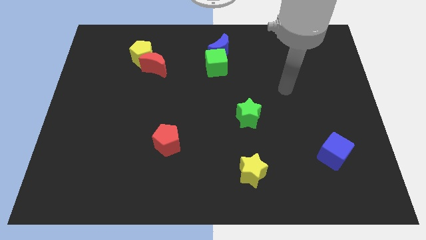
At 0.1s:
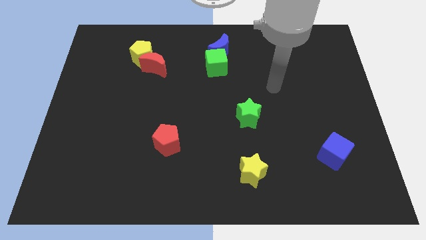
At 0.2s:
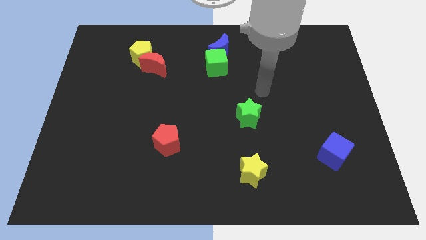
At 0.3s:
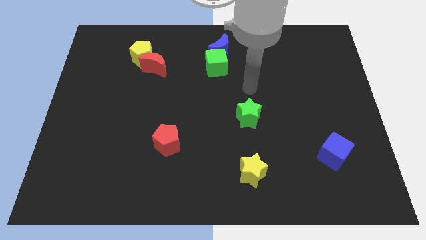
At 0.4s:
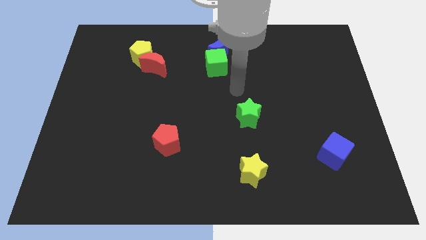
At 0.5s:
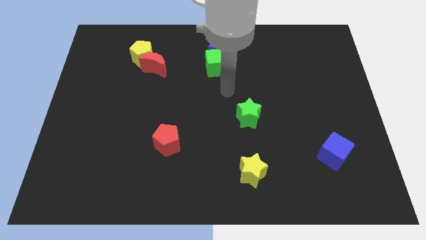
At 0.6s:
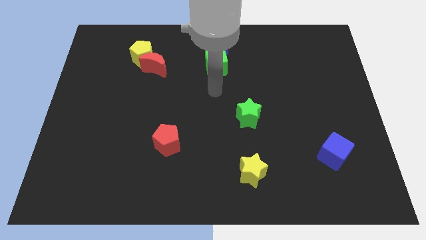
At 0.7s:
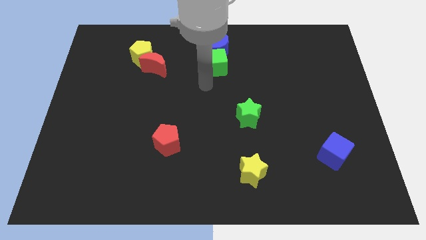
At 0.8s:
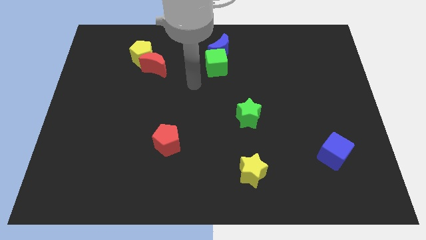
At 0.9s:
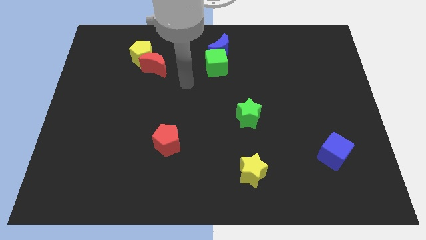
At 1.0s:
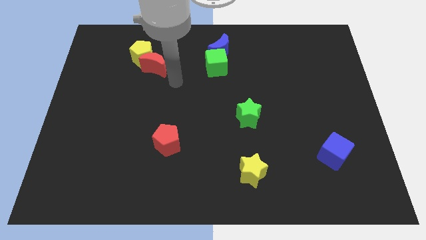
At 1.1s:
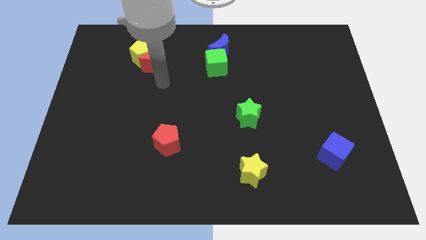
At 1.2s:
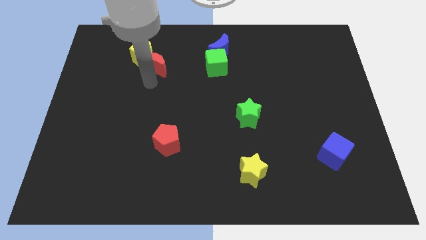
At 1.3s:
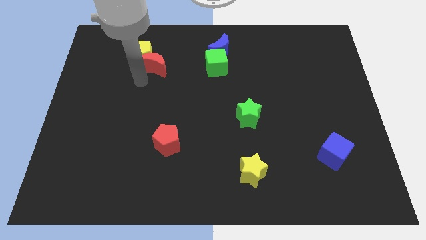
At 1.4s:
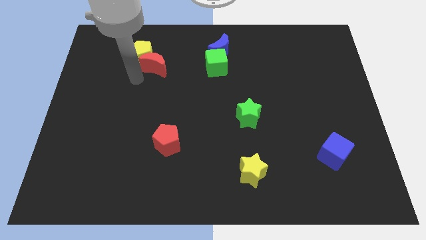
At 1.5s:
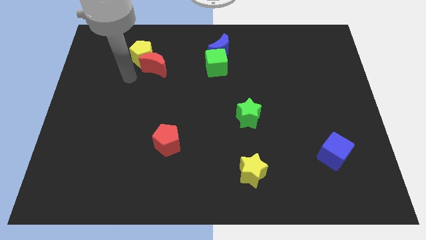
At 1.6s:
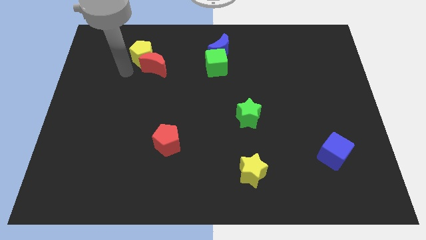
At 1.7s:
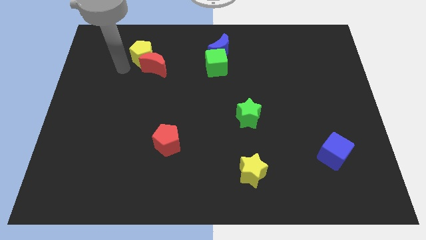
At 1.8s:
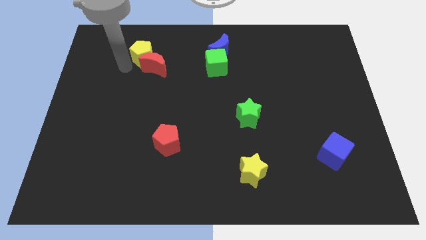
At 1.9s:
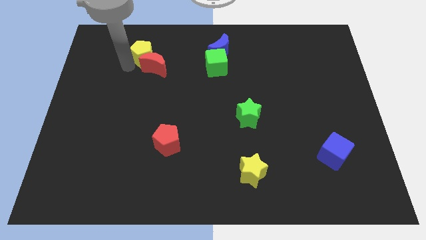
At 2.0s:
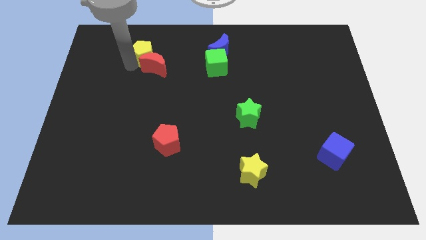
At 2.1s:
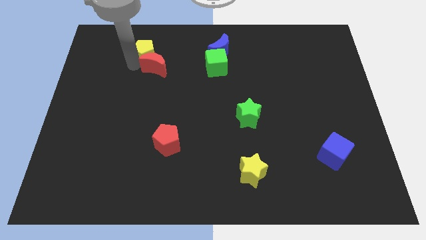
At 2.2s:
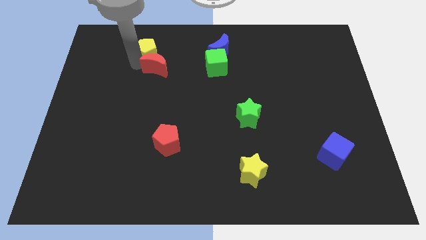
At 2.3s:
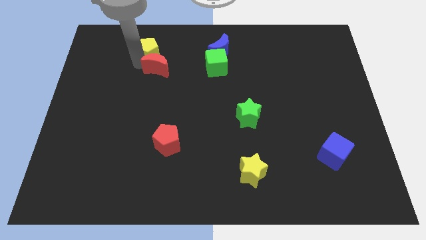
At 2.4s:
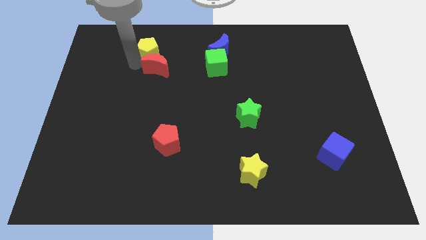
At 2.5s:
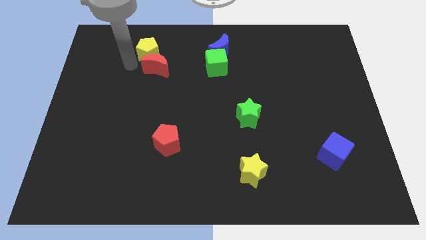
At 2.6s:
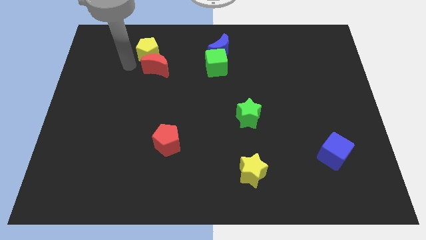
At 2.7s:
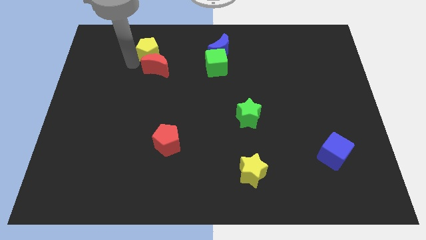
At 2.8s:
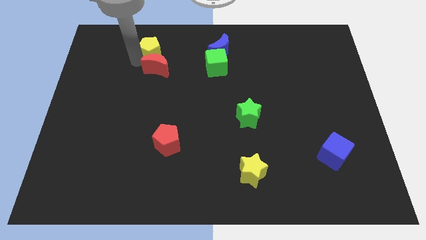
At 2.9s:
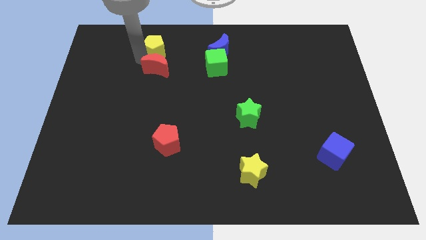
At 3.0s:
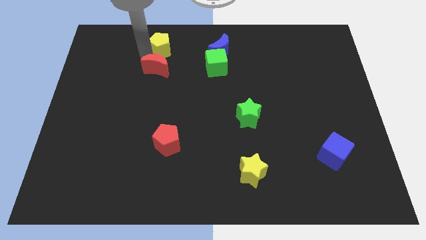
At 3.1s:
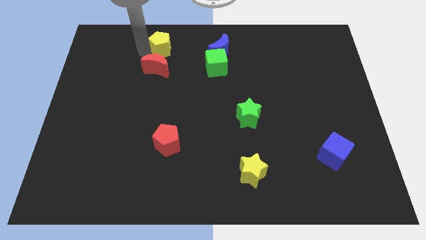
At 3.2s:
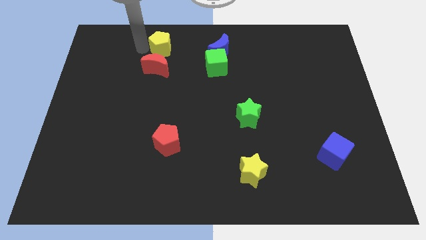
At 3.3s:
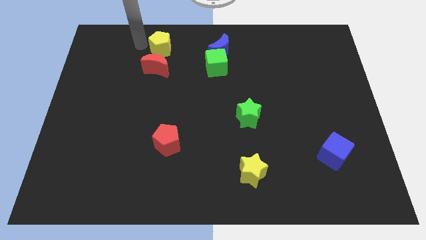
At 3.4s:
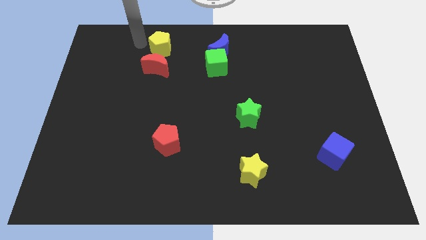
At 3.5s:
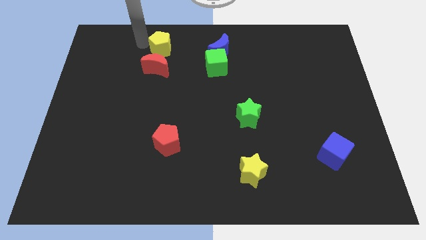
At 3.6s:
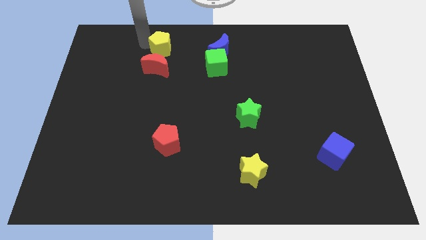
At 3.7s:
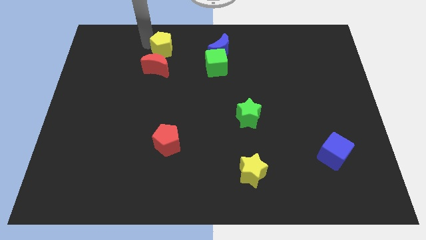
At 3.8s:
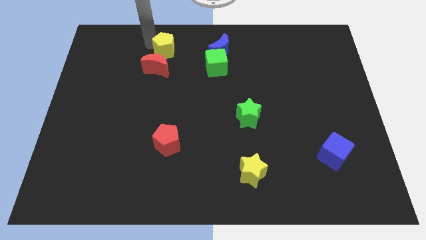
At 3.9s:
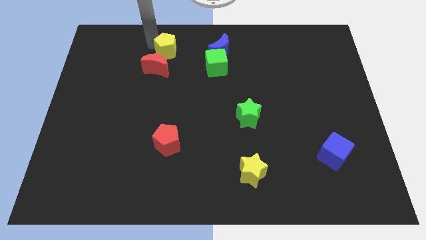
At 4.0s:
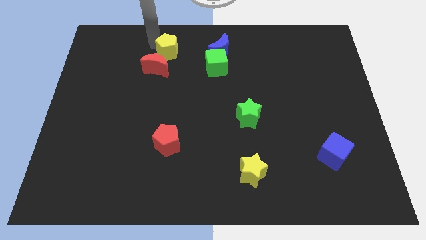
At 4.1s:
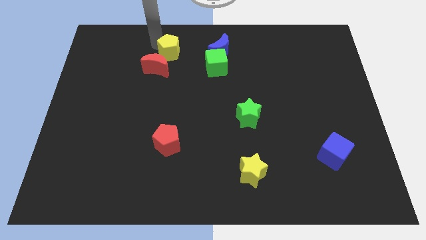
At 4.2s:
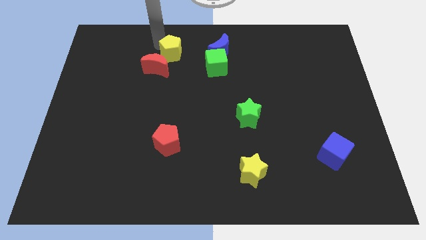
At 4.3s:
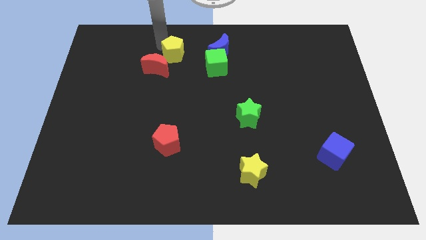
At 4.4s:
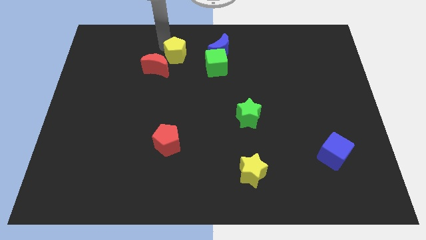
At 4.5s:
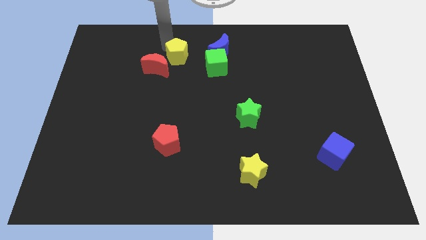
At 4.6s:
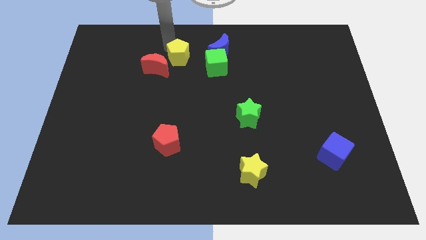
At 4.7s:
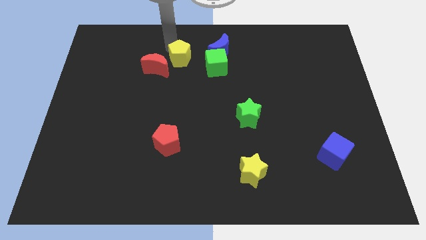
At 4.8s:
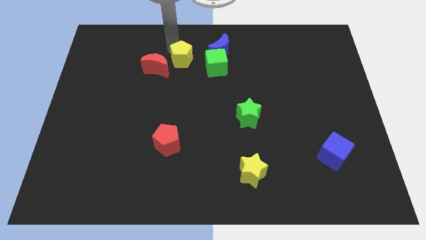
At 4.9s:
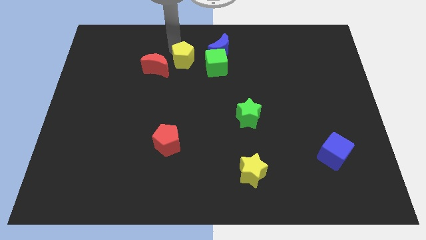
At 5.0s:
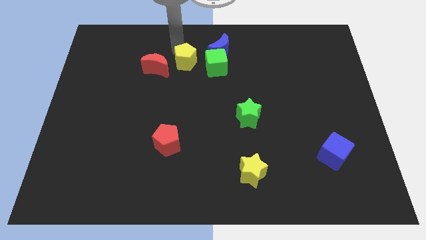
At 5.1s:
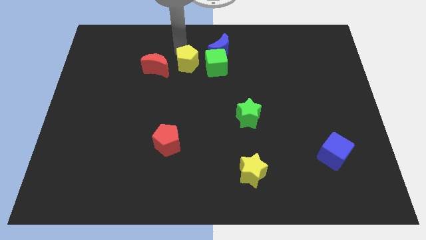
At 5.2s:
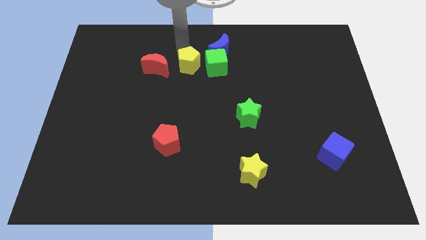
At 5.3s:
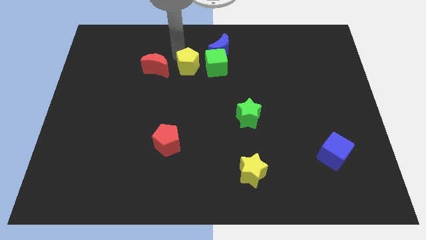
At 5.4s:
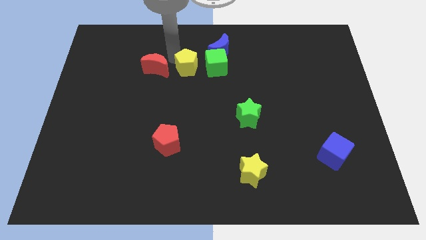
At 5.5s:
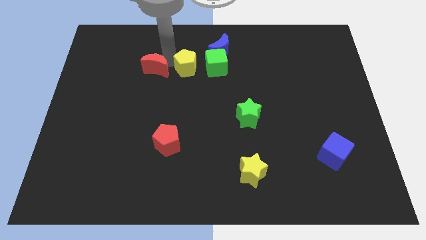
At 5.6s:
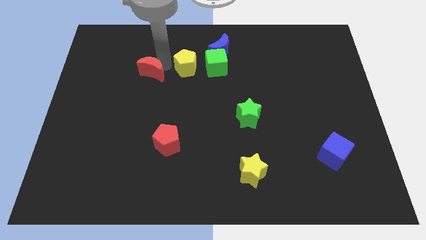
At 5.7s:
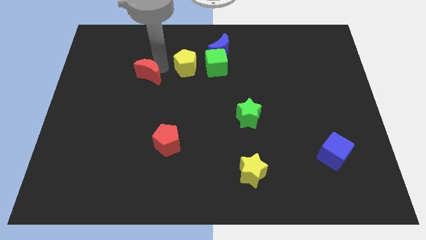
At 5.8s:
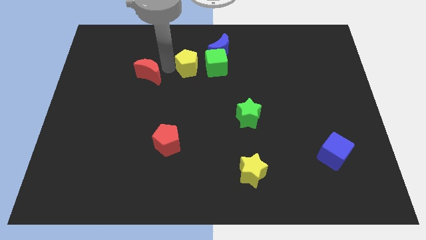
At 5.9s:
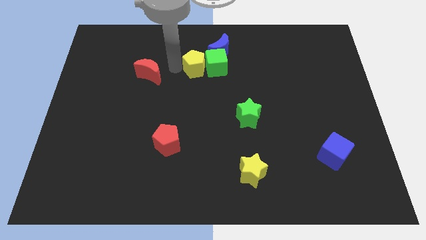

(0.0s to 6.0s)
push the yellow pentagon next to the green cube

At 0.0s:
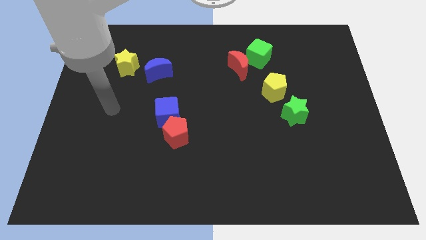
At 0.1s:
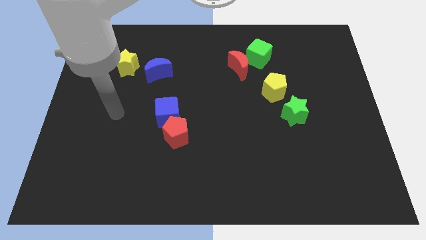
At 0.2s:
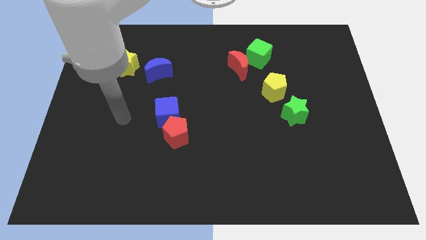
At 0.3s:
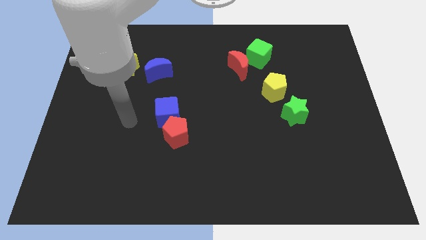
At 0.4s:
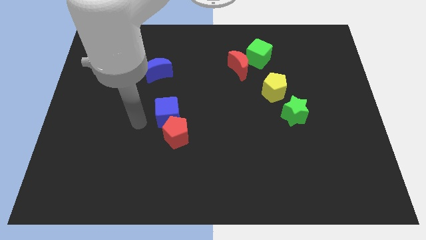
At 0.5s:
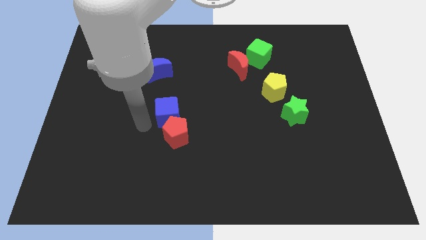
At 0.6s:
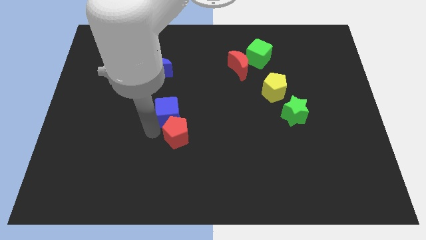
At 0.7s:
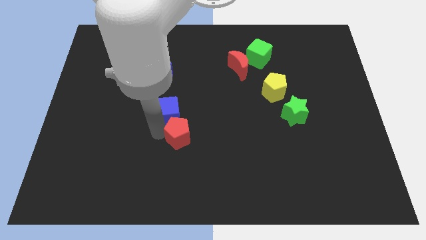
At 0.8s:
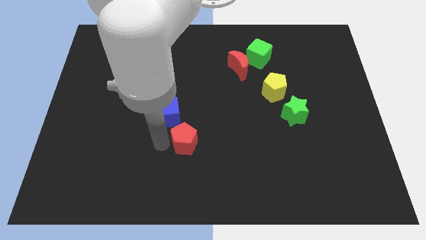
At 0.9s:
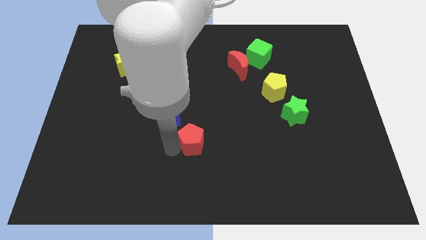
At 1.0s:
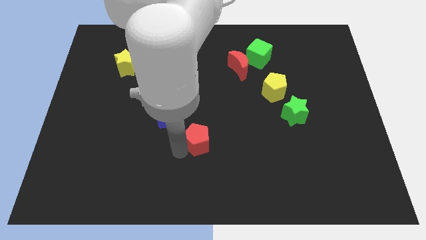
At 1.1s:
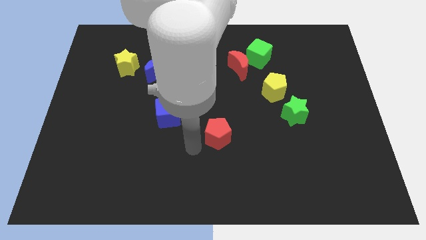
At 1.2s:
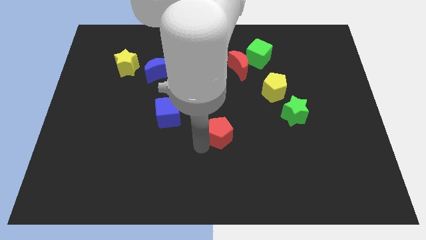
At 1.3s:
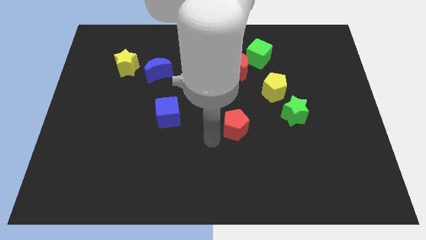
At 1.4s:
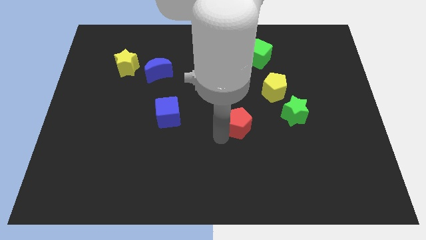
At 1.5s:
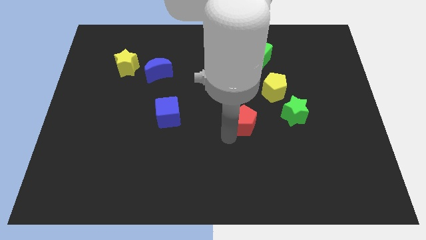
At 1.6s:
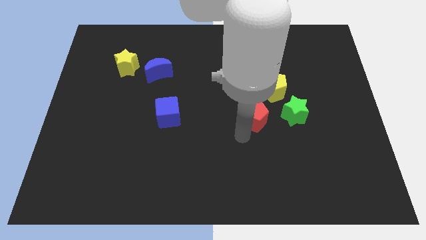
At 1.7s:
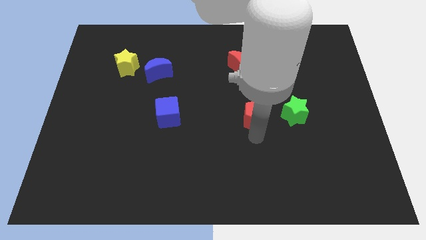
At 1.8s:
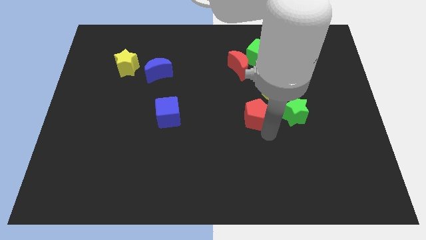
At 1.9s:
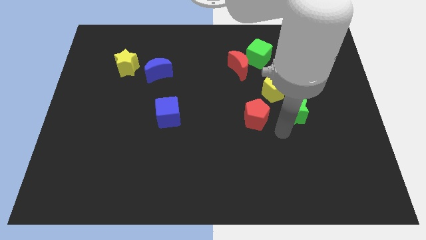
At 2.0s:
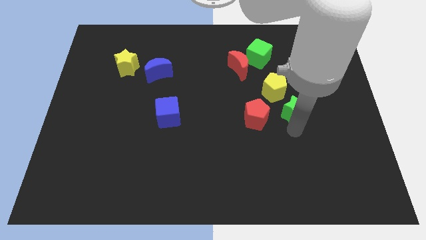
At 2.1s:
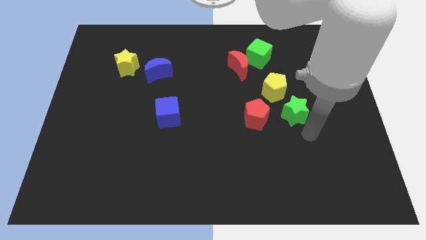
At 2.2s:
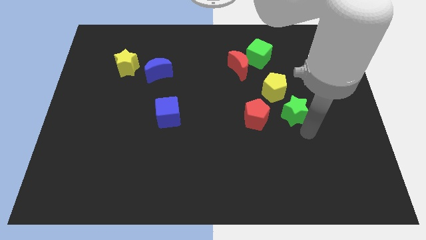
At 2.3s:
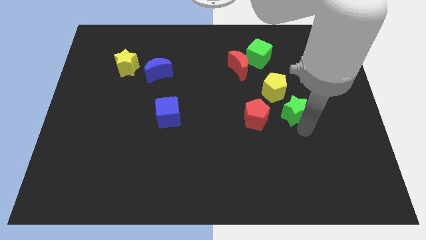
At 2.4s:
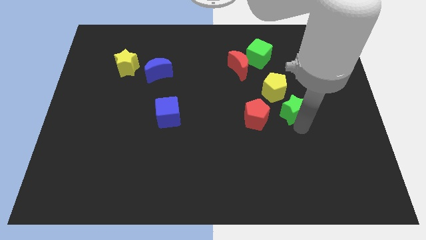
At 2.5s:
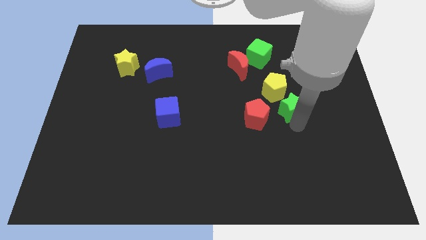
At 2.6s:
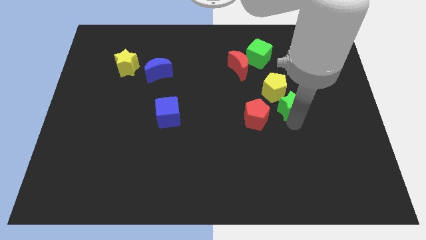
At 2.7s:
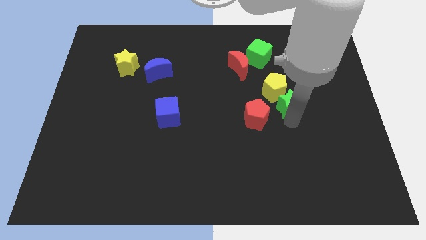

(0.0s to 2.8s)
push the green star close to the yellow pentagon
